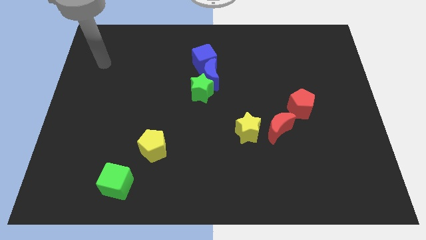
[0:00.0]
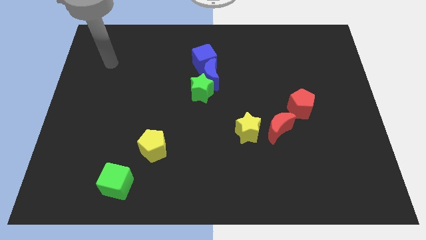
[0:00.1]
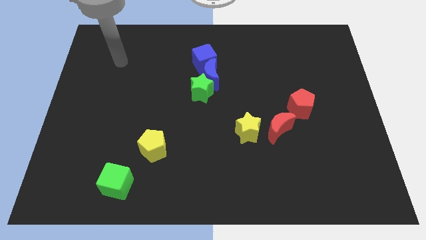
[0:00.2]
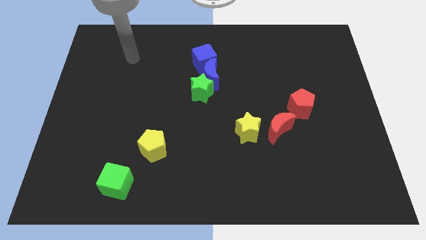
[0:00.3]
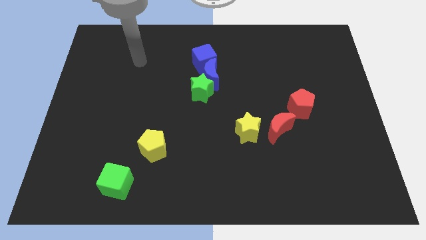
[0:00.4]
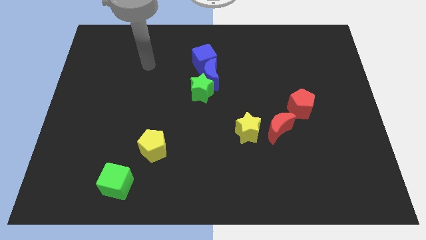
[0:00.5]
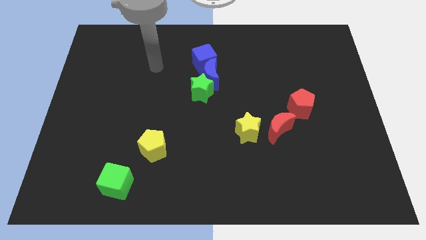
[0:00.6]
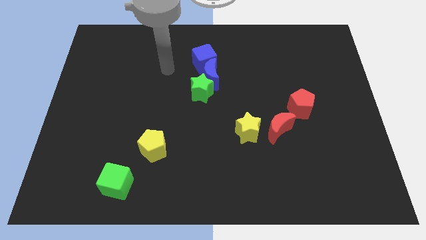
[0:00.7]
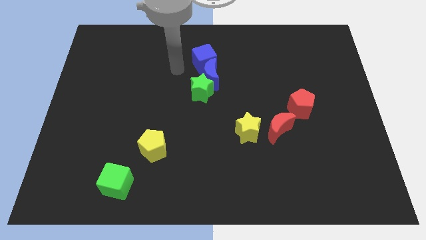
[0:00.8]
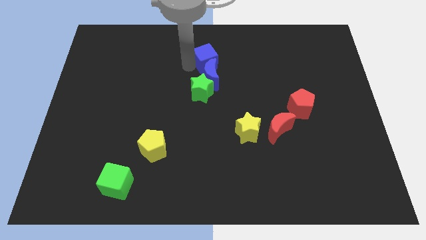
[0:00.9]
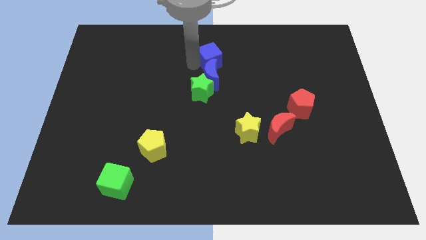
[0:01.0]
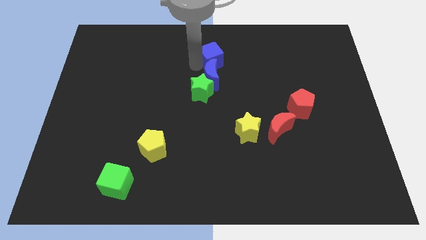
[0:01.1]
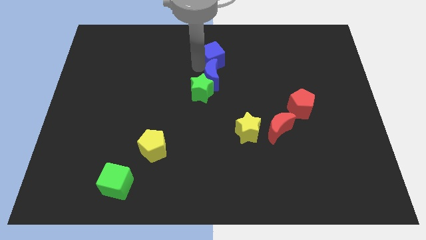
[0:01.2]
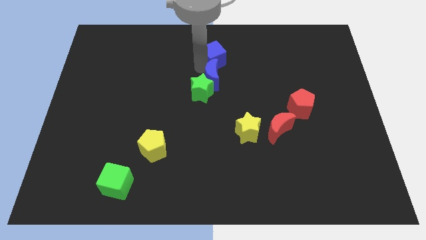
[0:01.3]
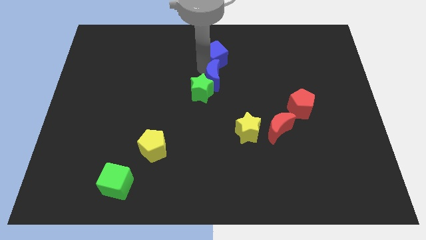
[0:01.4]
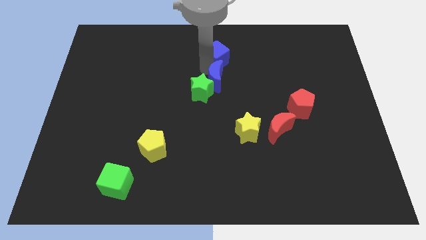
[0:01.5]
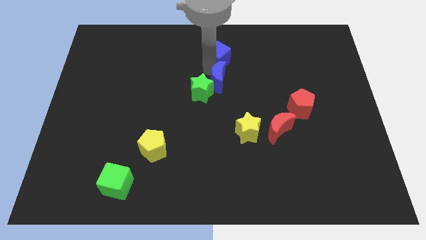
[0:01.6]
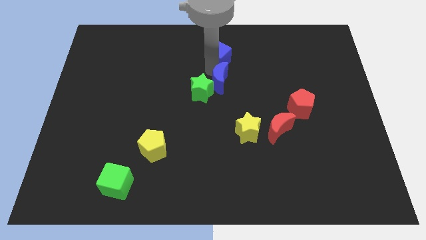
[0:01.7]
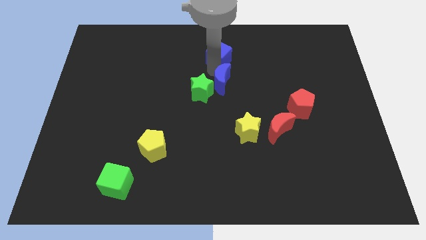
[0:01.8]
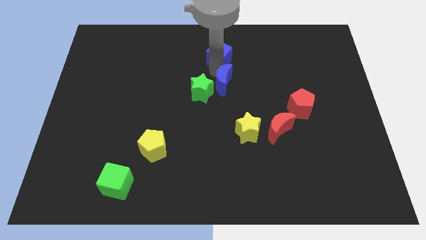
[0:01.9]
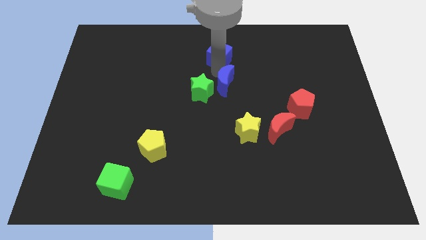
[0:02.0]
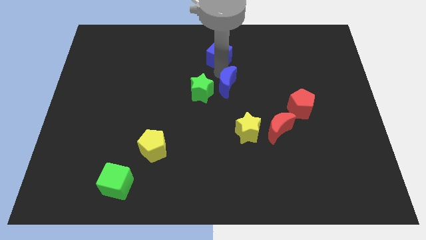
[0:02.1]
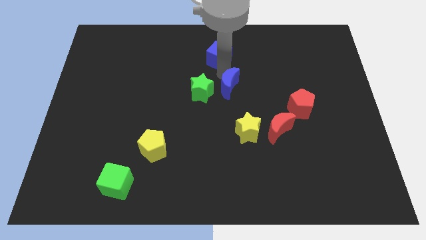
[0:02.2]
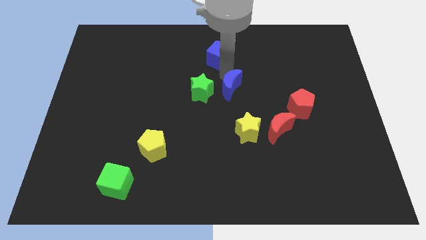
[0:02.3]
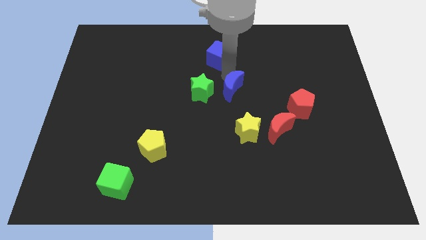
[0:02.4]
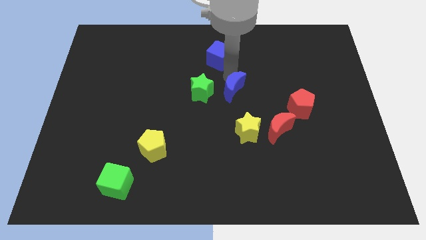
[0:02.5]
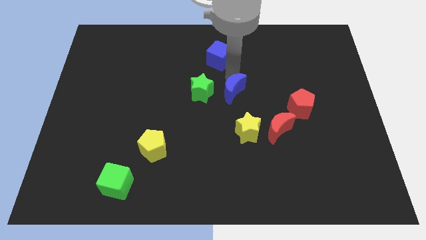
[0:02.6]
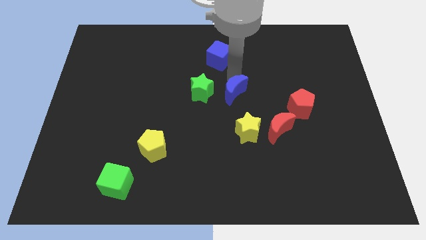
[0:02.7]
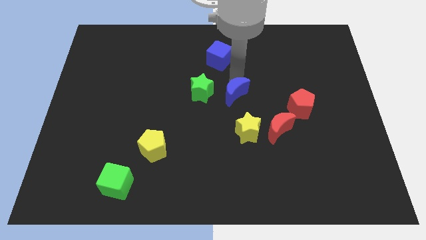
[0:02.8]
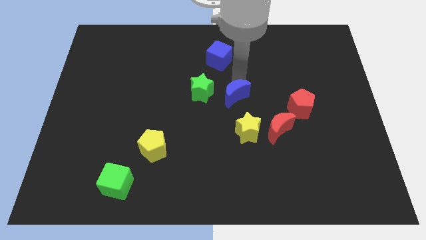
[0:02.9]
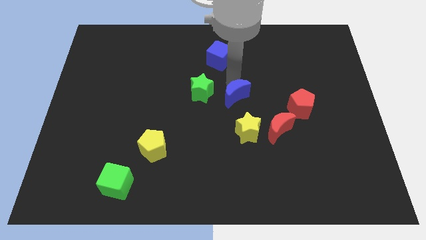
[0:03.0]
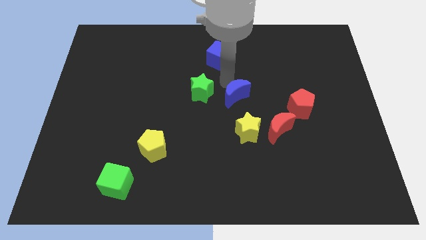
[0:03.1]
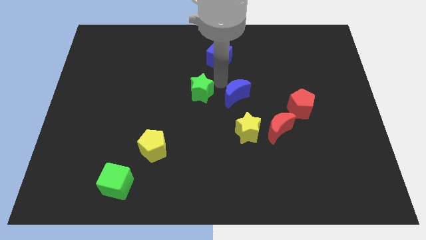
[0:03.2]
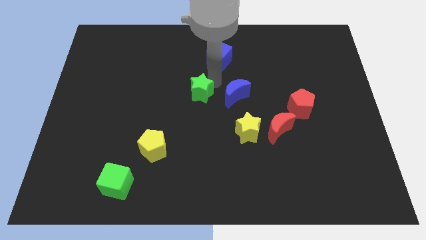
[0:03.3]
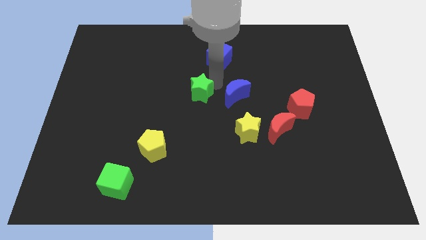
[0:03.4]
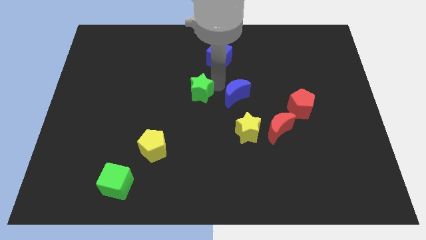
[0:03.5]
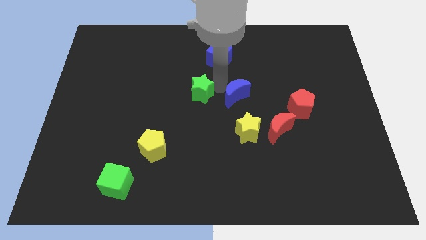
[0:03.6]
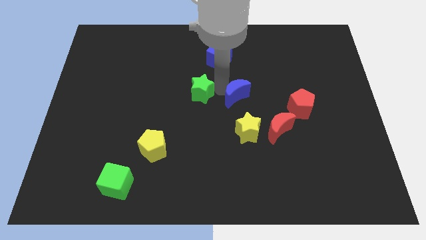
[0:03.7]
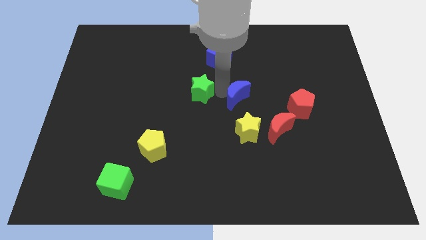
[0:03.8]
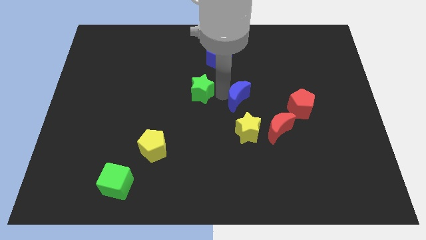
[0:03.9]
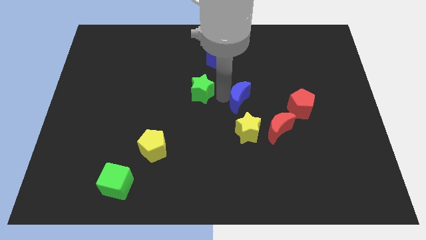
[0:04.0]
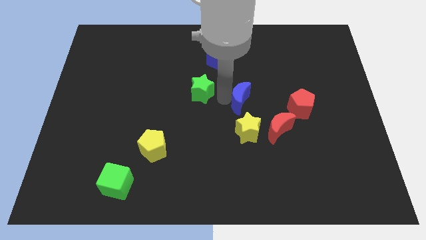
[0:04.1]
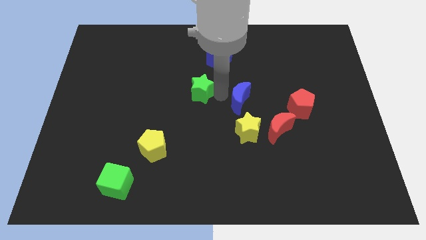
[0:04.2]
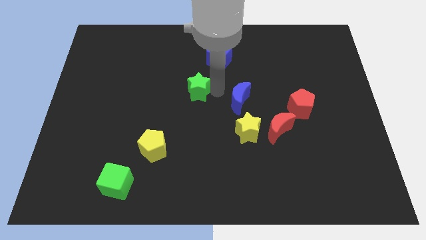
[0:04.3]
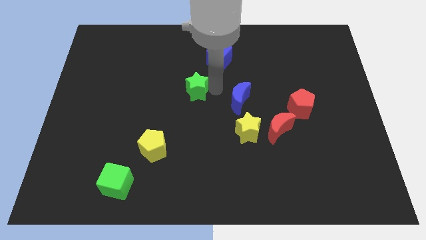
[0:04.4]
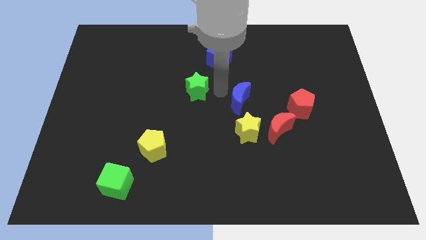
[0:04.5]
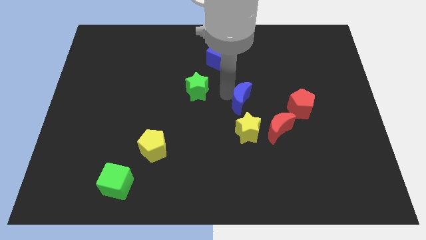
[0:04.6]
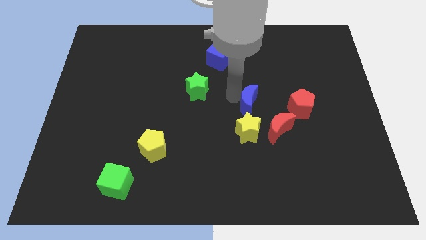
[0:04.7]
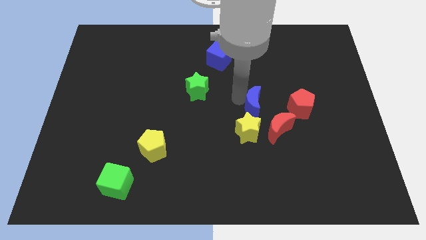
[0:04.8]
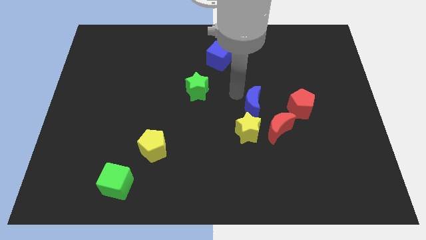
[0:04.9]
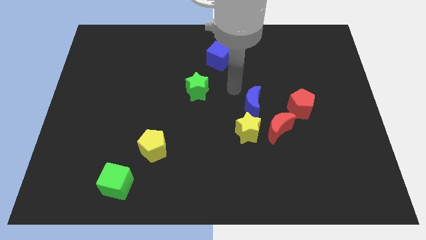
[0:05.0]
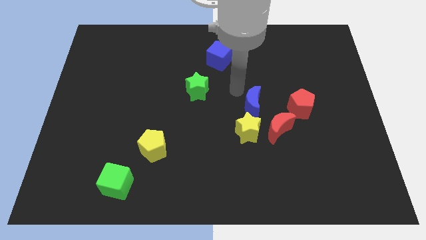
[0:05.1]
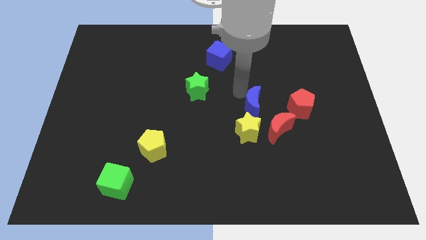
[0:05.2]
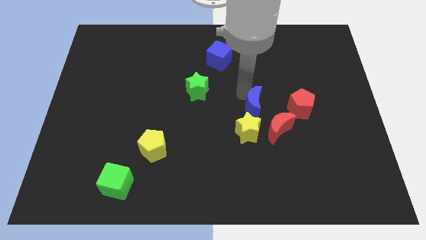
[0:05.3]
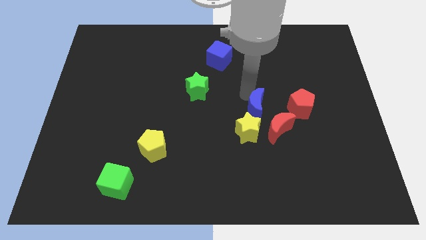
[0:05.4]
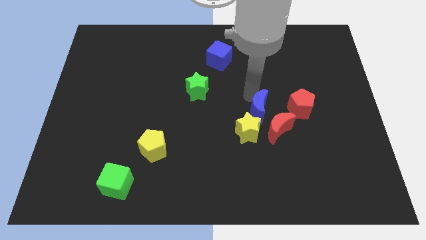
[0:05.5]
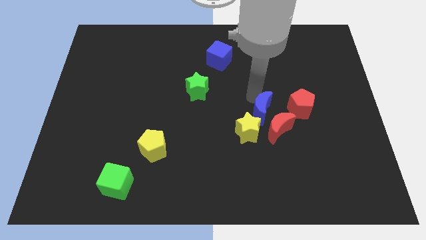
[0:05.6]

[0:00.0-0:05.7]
slide the blue moon close to the red moon

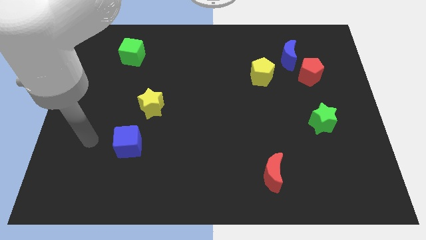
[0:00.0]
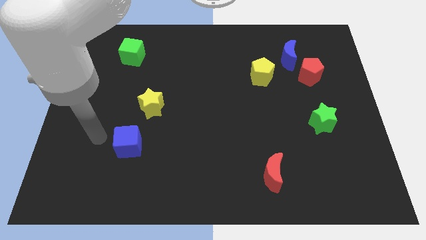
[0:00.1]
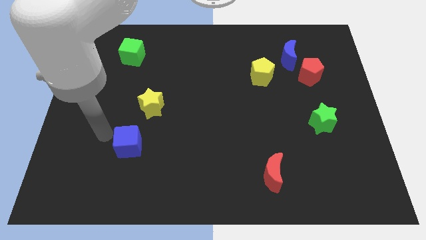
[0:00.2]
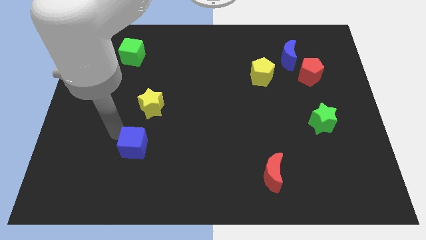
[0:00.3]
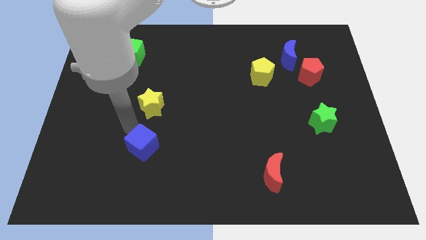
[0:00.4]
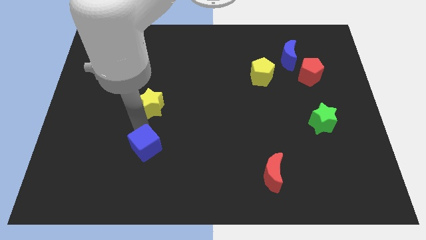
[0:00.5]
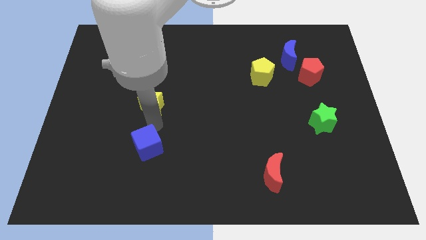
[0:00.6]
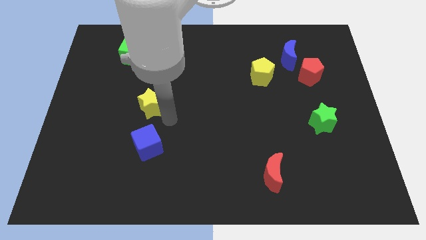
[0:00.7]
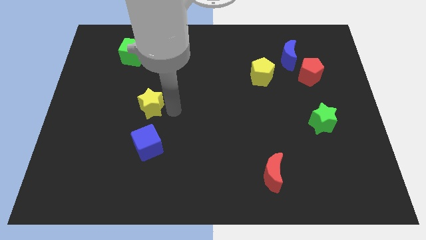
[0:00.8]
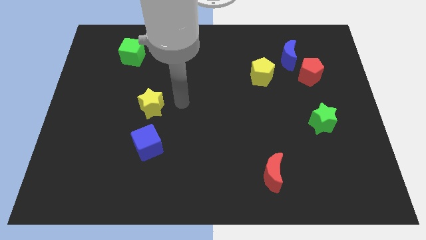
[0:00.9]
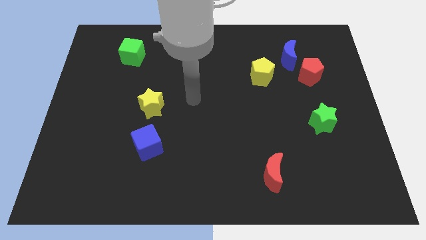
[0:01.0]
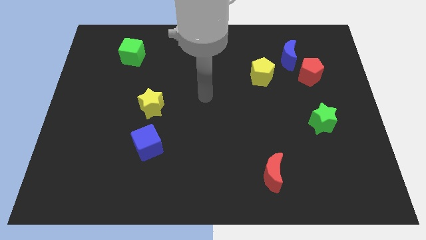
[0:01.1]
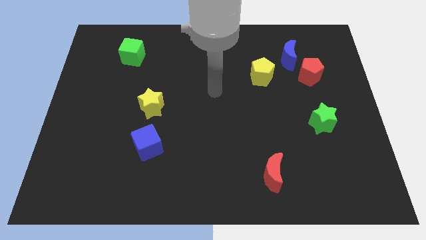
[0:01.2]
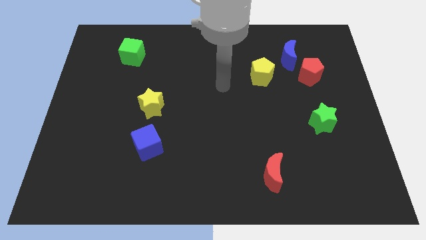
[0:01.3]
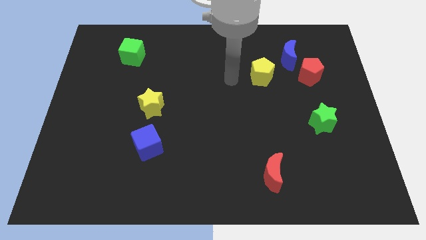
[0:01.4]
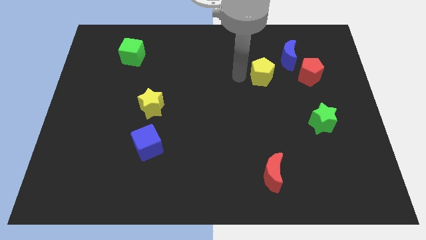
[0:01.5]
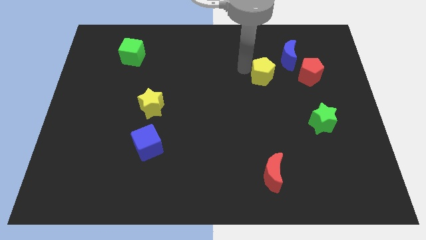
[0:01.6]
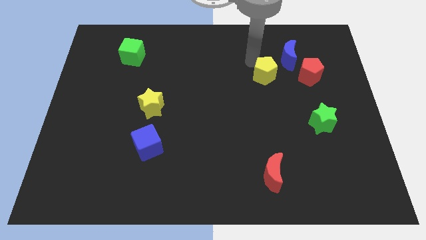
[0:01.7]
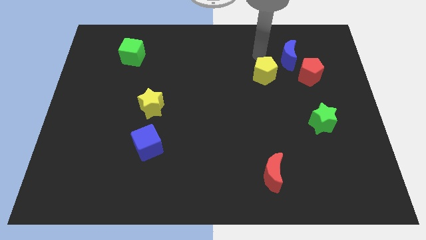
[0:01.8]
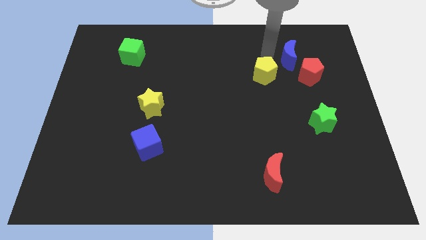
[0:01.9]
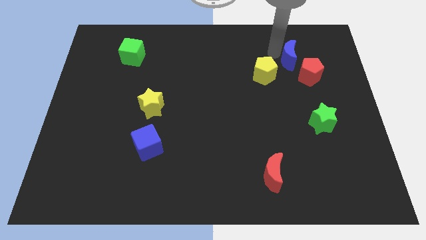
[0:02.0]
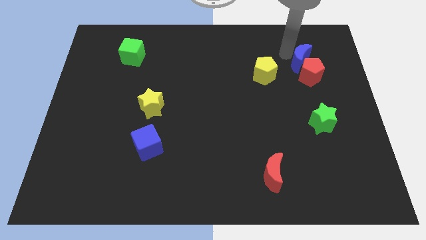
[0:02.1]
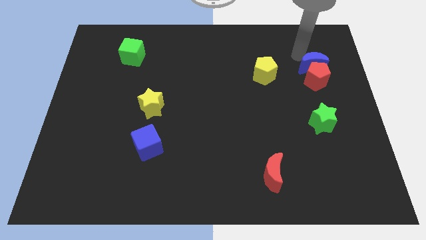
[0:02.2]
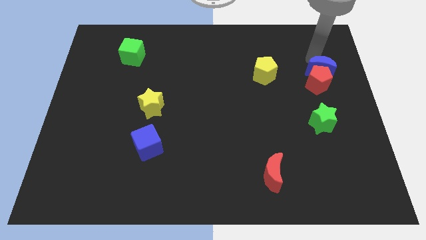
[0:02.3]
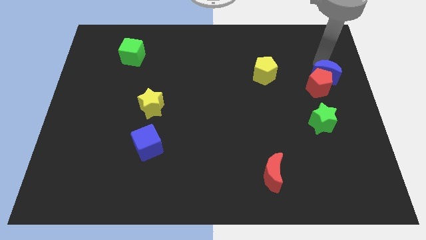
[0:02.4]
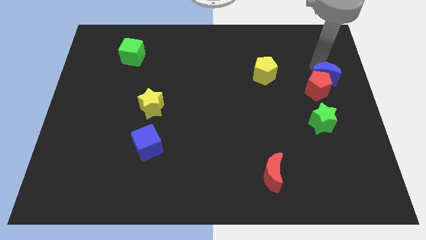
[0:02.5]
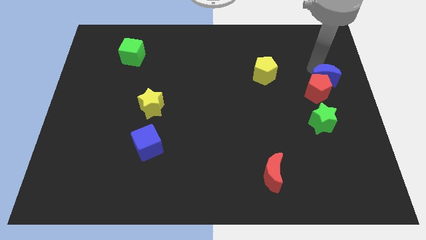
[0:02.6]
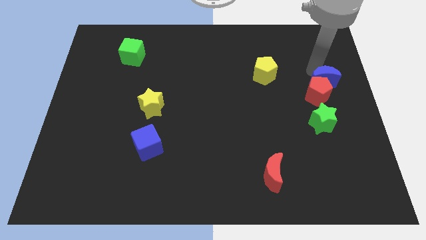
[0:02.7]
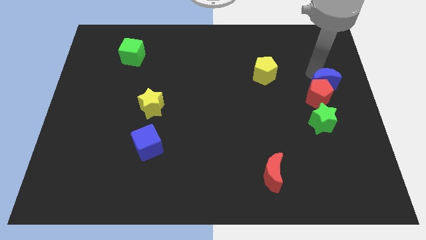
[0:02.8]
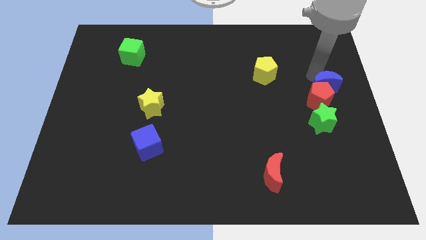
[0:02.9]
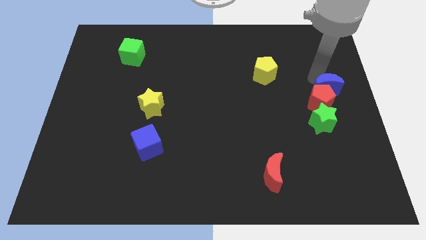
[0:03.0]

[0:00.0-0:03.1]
push the red pentagon close to the green star
